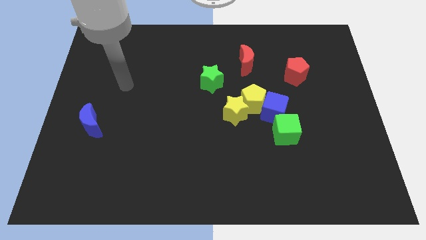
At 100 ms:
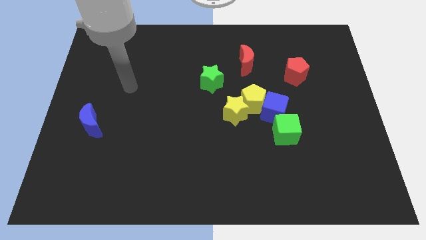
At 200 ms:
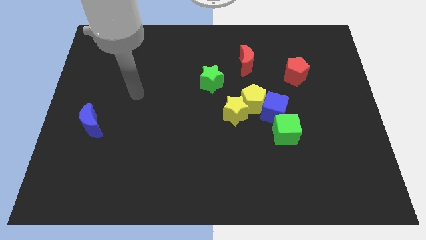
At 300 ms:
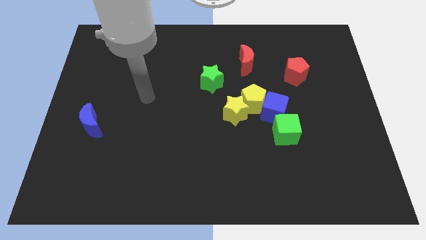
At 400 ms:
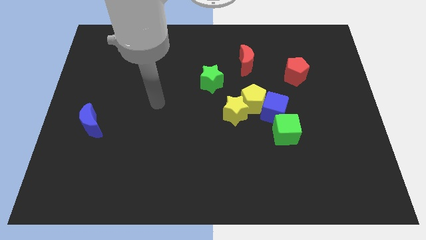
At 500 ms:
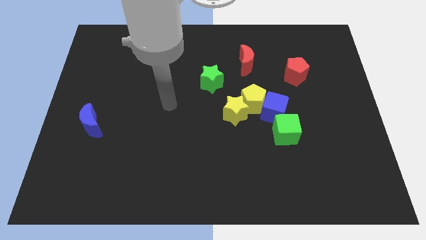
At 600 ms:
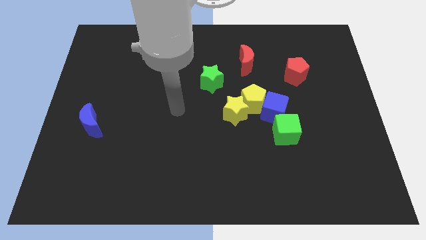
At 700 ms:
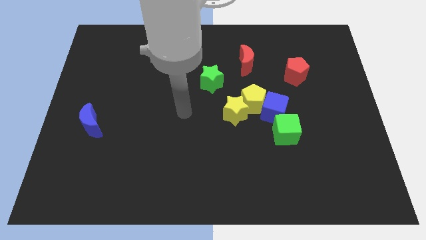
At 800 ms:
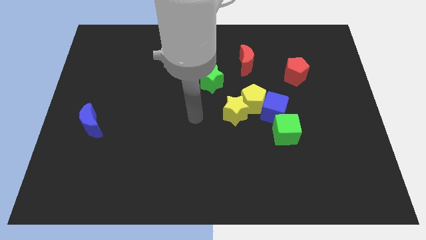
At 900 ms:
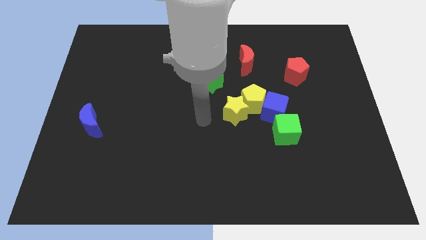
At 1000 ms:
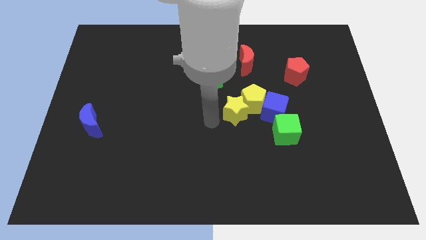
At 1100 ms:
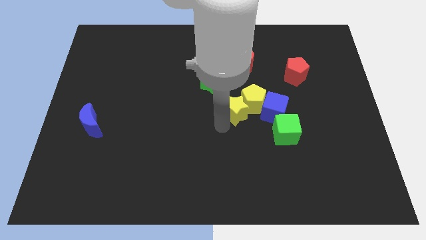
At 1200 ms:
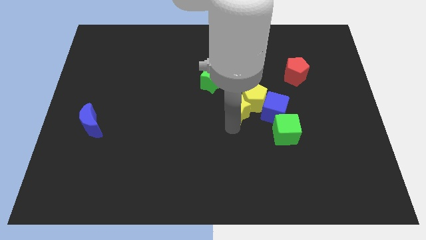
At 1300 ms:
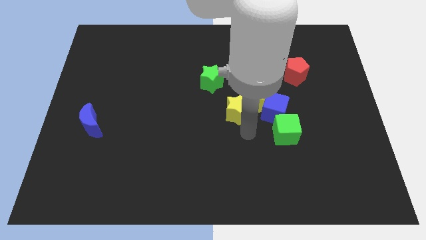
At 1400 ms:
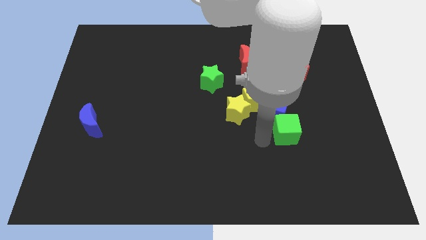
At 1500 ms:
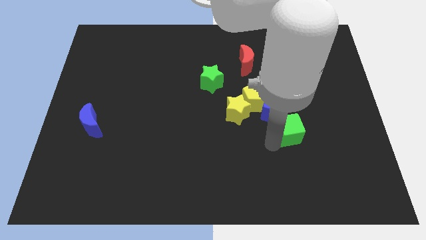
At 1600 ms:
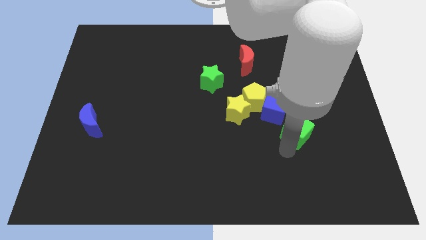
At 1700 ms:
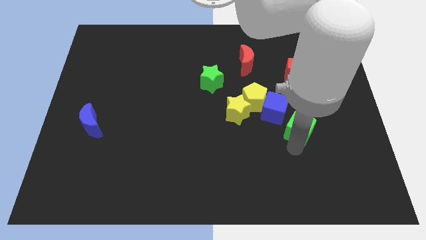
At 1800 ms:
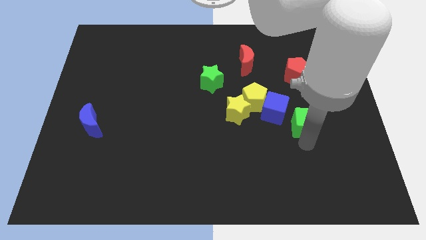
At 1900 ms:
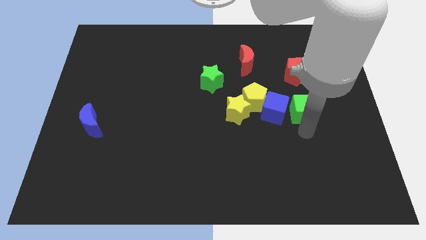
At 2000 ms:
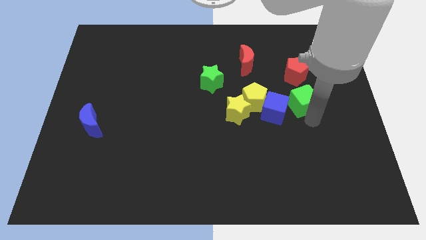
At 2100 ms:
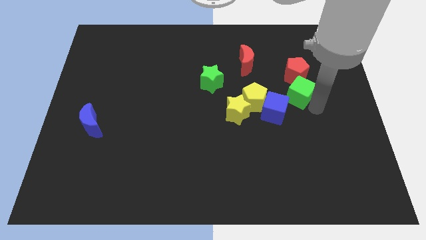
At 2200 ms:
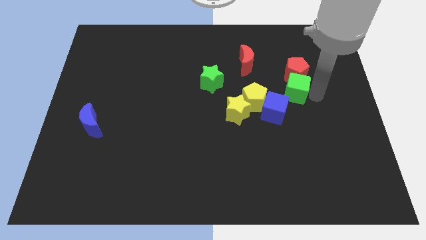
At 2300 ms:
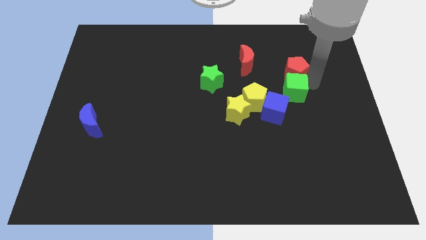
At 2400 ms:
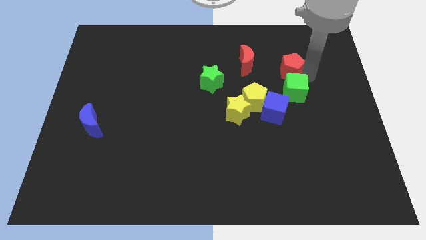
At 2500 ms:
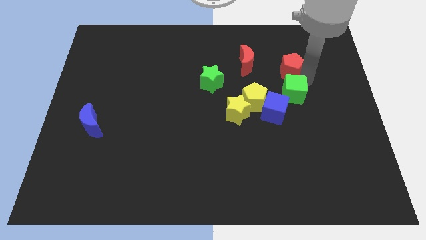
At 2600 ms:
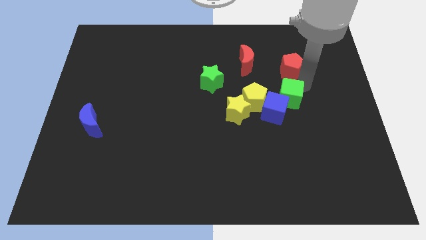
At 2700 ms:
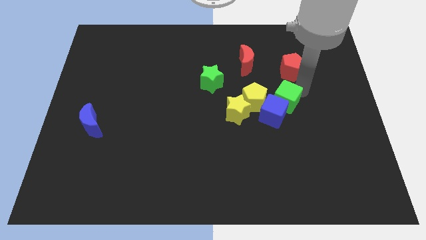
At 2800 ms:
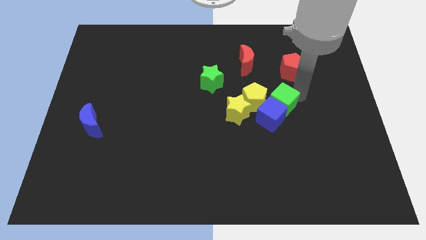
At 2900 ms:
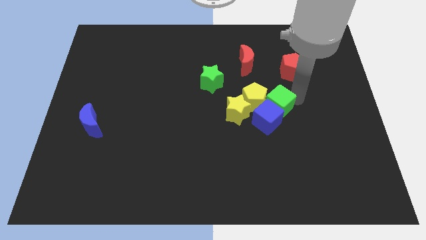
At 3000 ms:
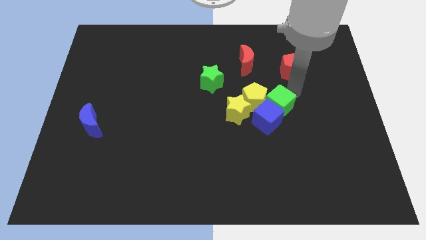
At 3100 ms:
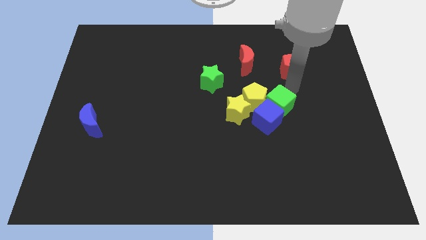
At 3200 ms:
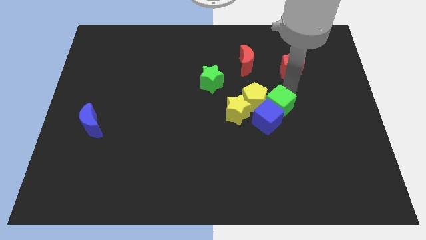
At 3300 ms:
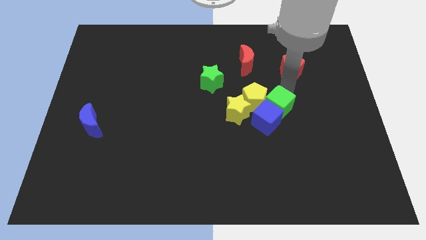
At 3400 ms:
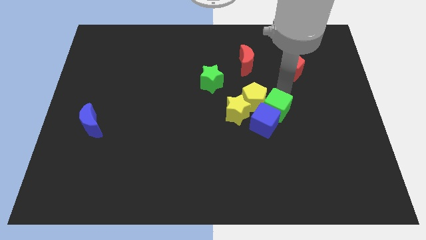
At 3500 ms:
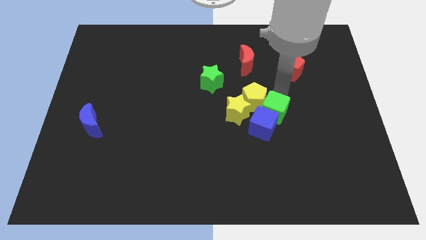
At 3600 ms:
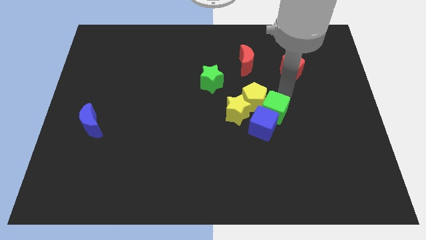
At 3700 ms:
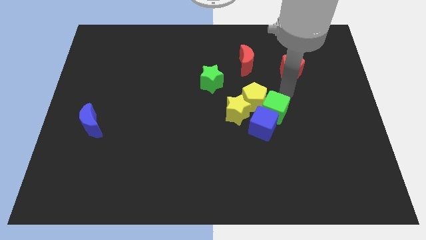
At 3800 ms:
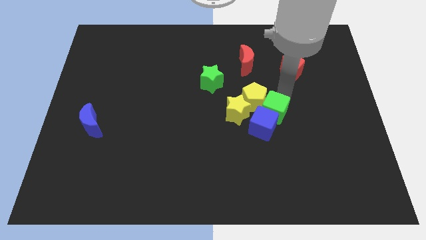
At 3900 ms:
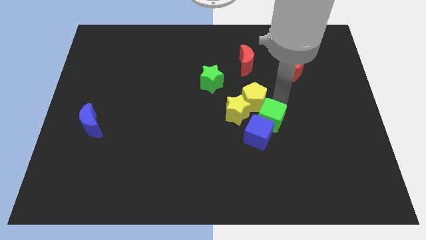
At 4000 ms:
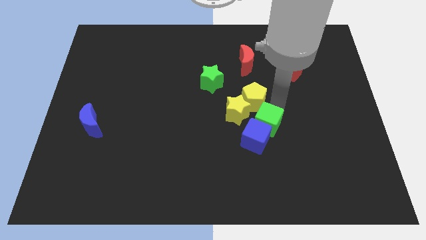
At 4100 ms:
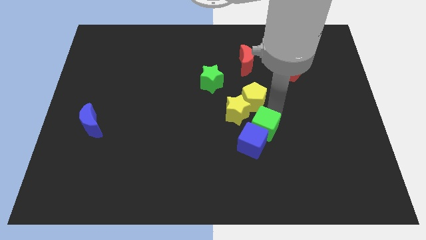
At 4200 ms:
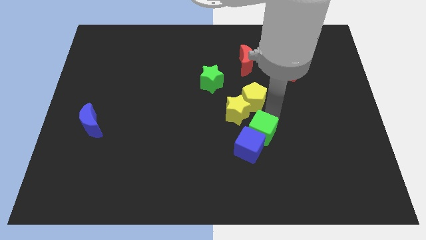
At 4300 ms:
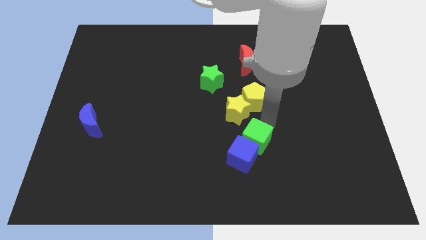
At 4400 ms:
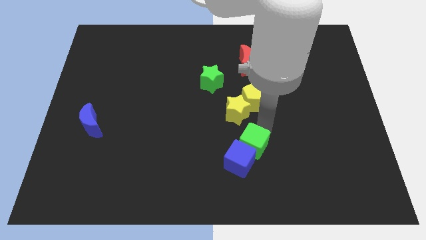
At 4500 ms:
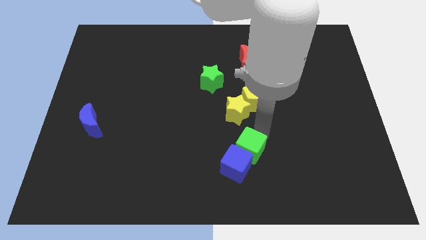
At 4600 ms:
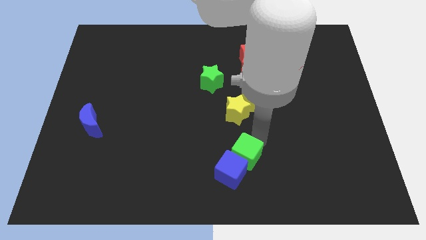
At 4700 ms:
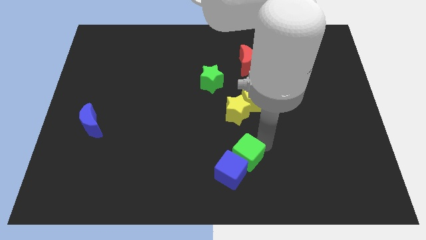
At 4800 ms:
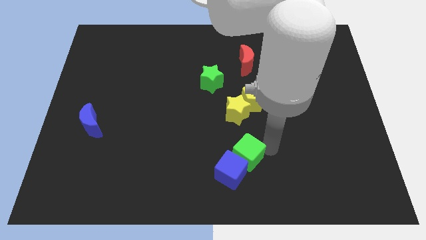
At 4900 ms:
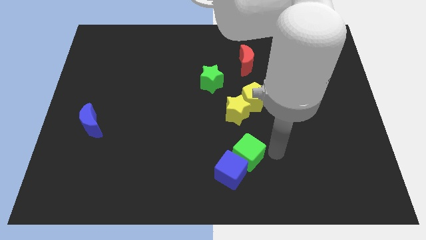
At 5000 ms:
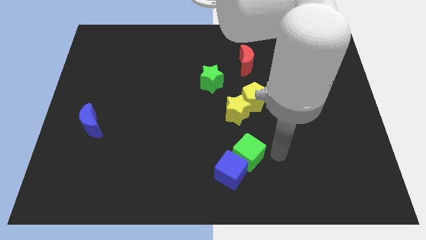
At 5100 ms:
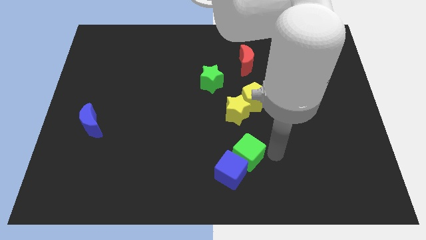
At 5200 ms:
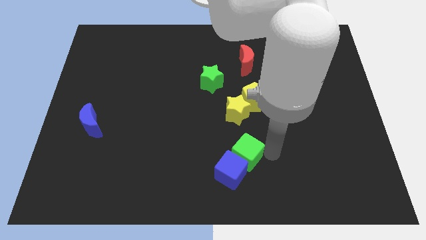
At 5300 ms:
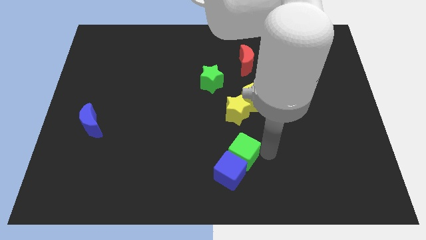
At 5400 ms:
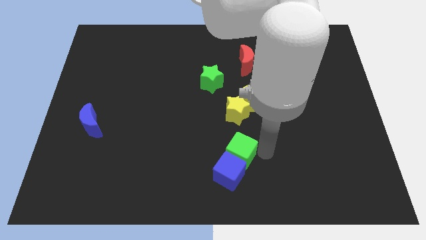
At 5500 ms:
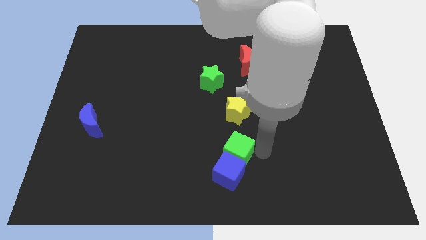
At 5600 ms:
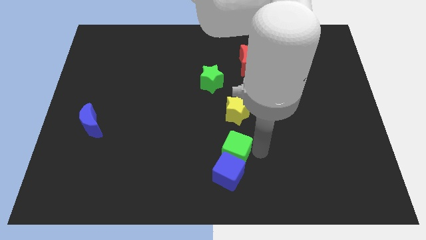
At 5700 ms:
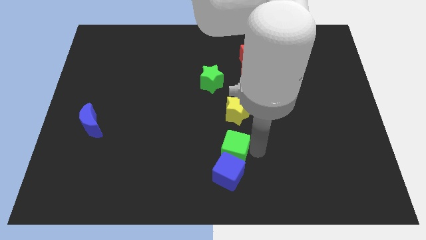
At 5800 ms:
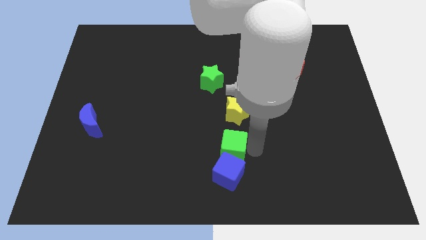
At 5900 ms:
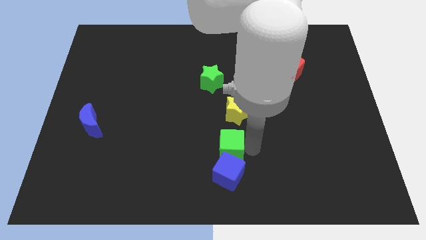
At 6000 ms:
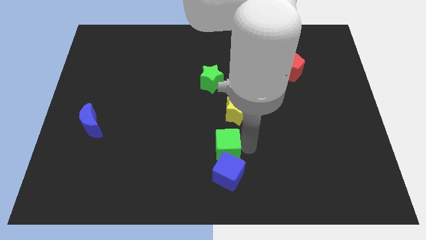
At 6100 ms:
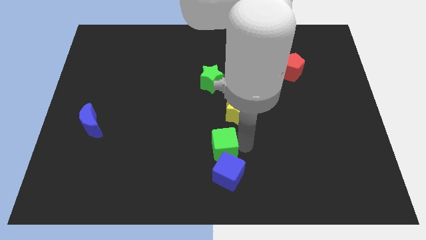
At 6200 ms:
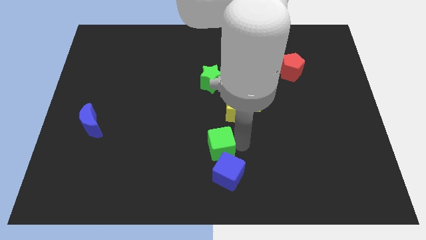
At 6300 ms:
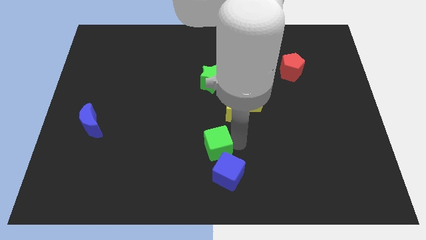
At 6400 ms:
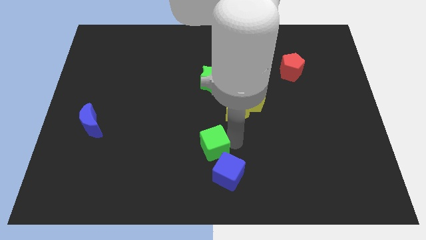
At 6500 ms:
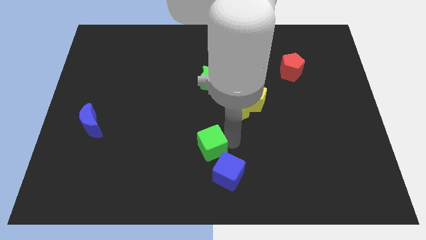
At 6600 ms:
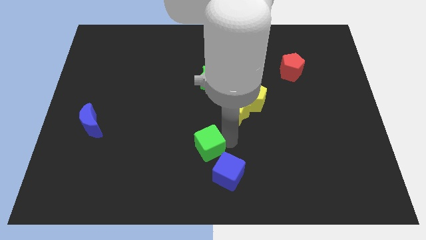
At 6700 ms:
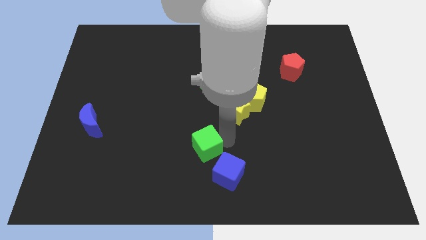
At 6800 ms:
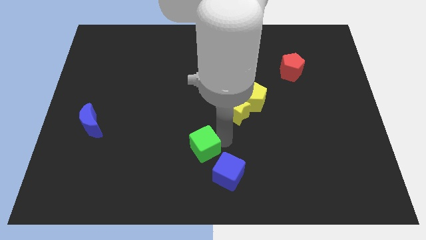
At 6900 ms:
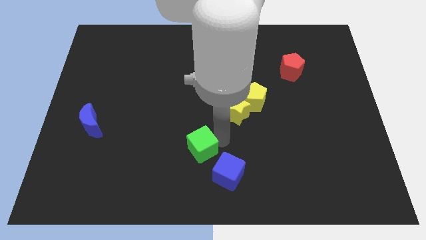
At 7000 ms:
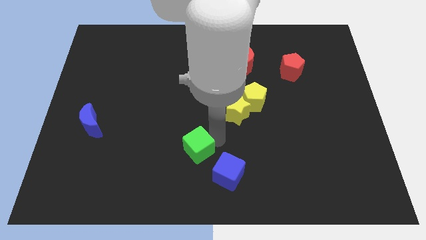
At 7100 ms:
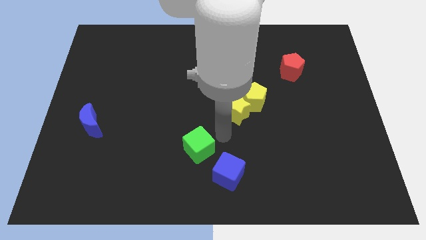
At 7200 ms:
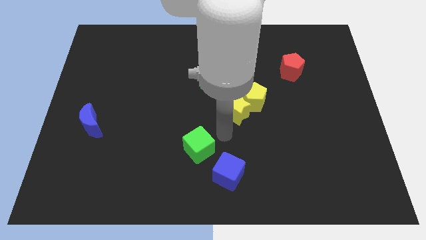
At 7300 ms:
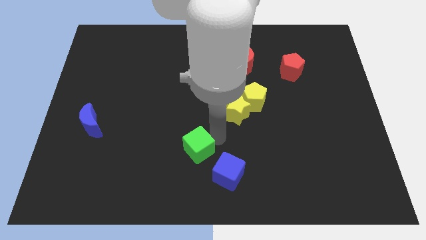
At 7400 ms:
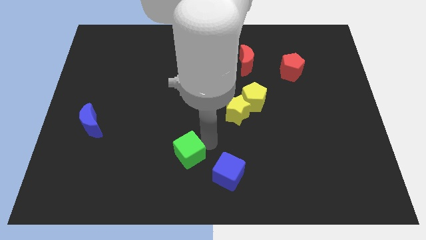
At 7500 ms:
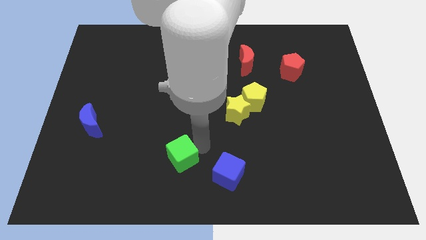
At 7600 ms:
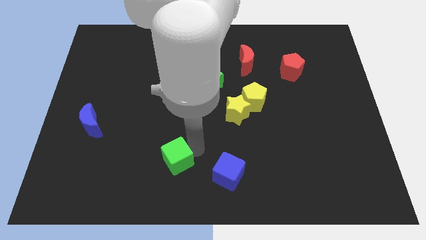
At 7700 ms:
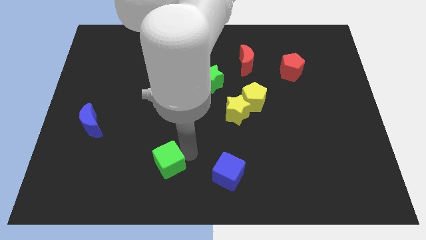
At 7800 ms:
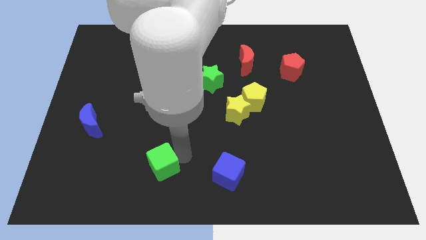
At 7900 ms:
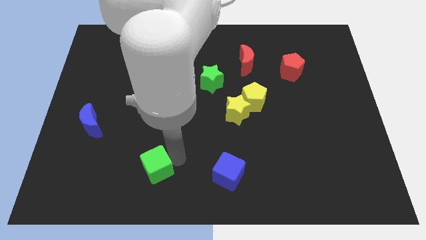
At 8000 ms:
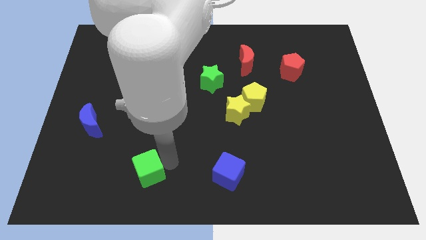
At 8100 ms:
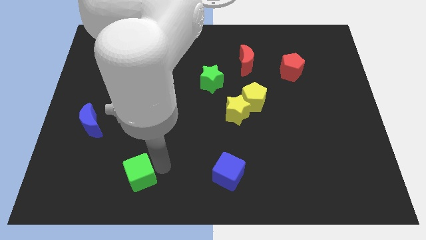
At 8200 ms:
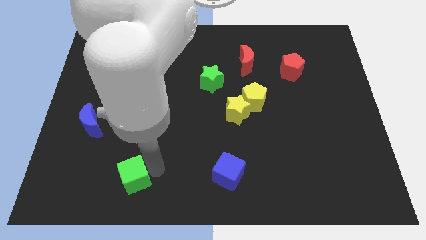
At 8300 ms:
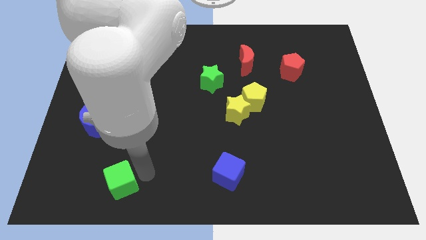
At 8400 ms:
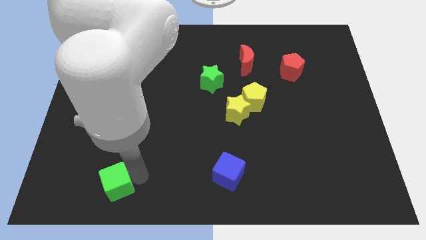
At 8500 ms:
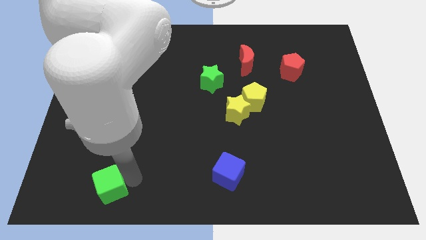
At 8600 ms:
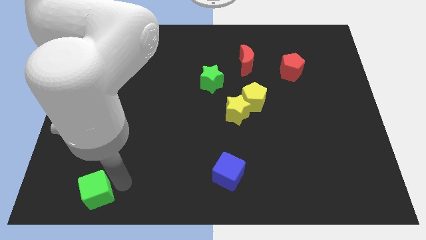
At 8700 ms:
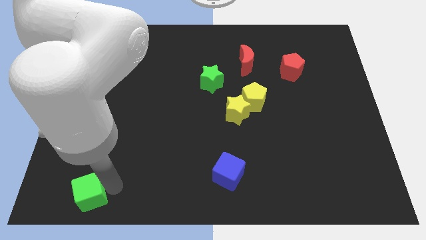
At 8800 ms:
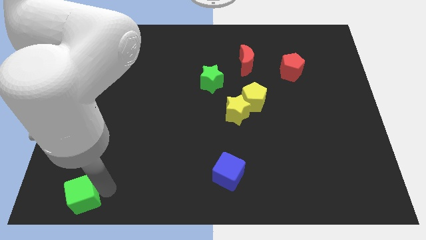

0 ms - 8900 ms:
push the green cube to the bottom left
